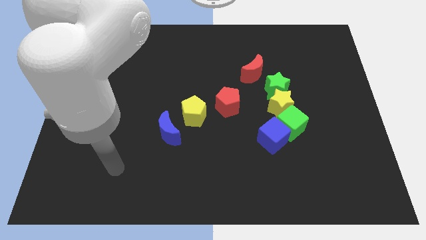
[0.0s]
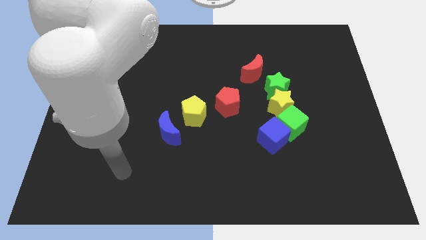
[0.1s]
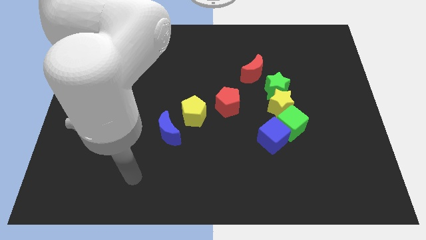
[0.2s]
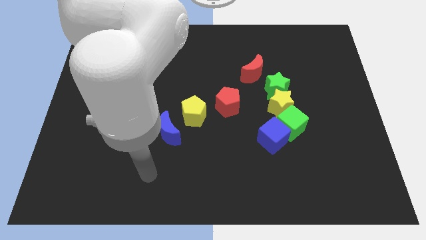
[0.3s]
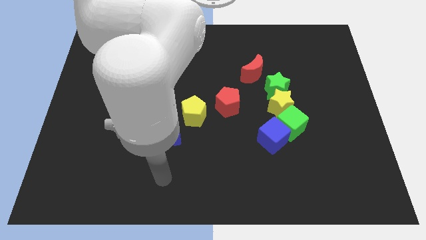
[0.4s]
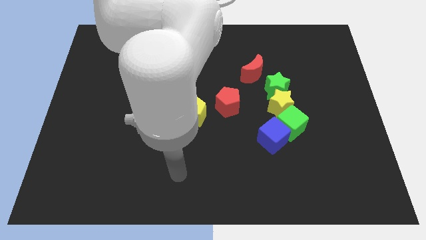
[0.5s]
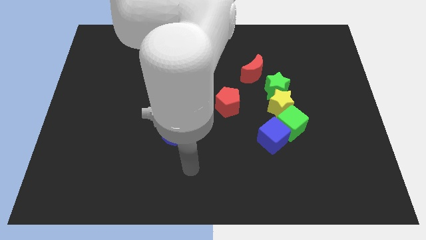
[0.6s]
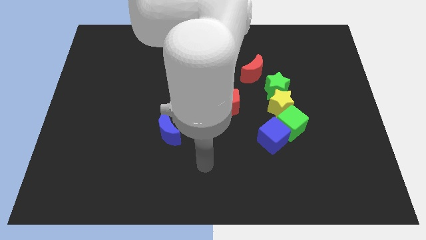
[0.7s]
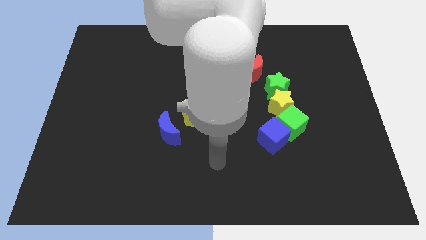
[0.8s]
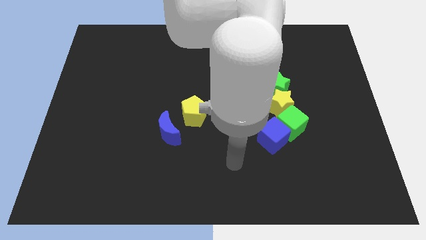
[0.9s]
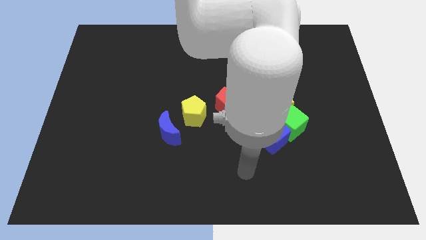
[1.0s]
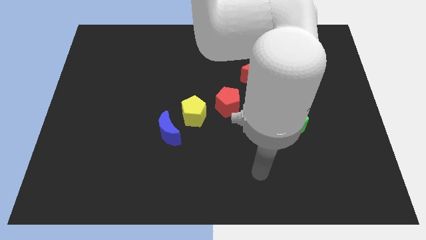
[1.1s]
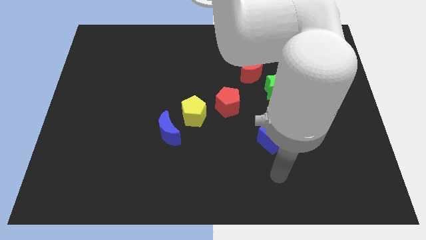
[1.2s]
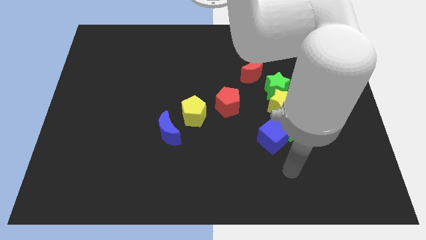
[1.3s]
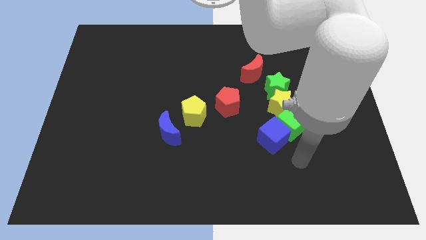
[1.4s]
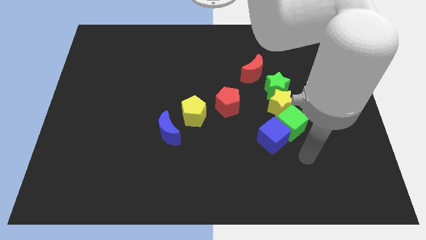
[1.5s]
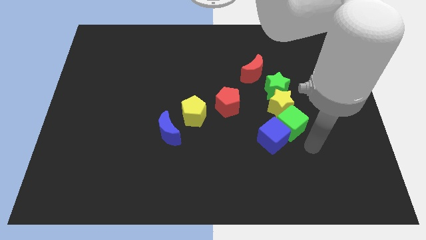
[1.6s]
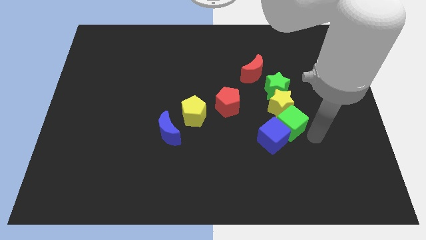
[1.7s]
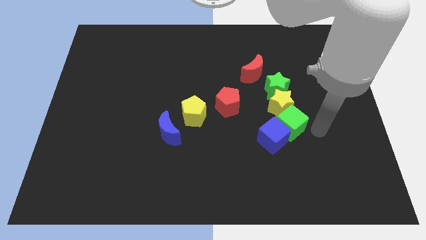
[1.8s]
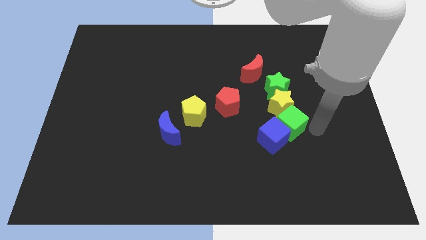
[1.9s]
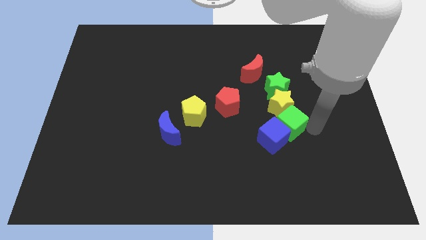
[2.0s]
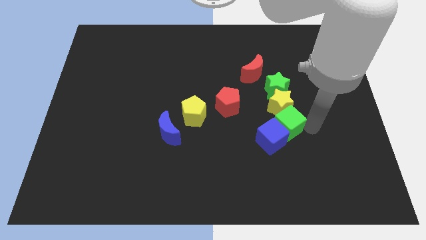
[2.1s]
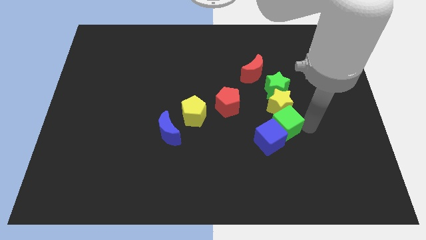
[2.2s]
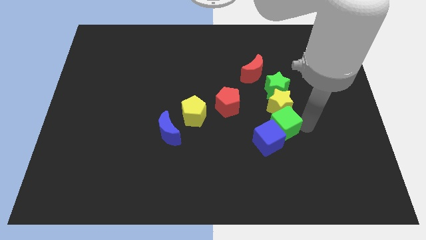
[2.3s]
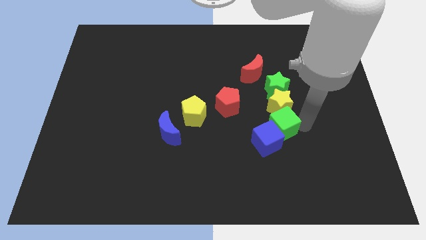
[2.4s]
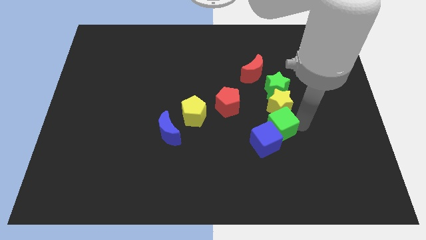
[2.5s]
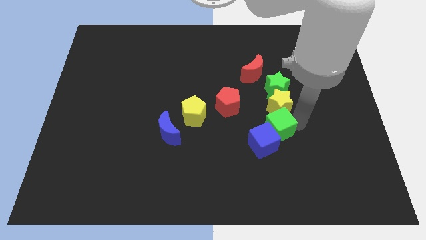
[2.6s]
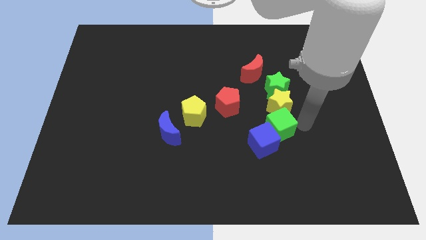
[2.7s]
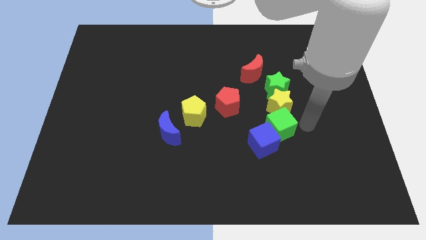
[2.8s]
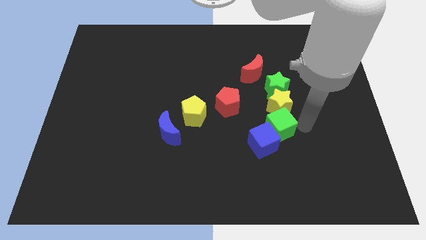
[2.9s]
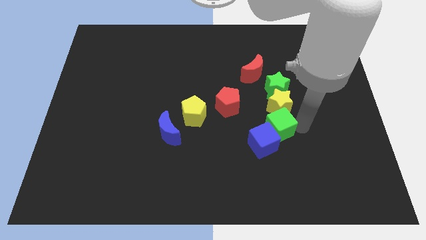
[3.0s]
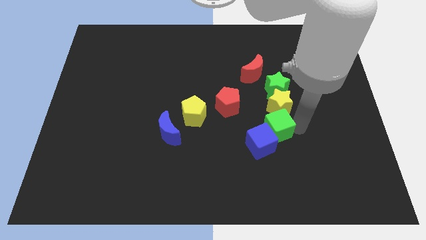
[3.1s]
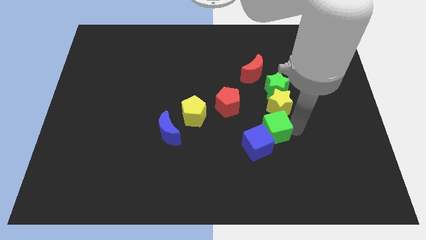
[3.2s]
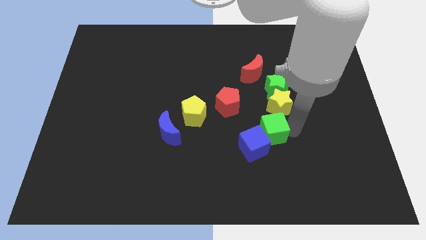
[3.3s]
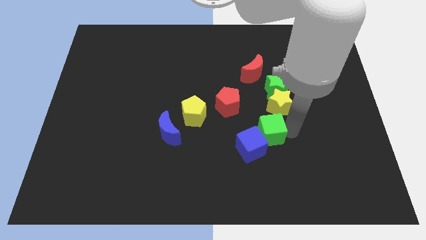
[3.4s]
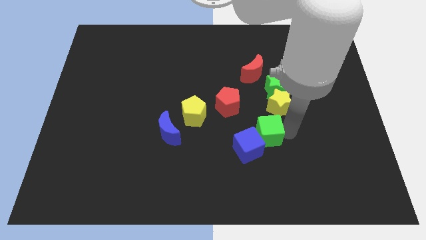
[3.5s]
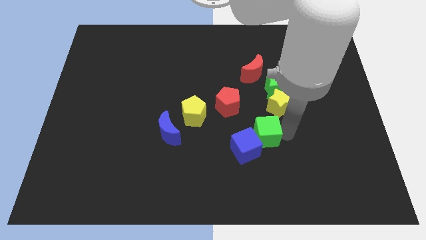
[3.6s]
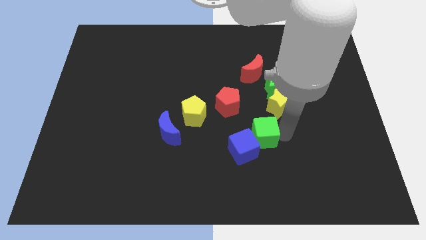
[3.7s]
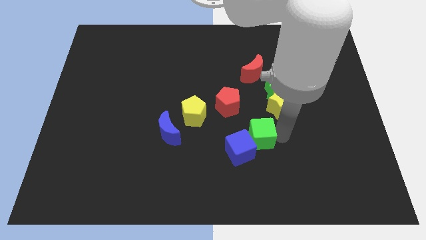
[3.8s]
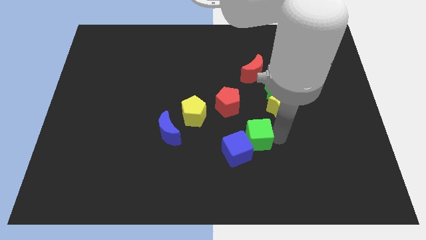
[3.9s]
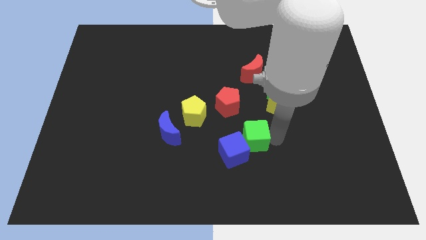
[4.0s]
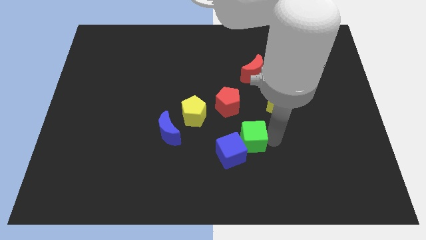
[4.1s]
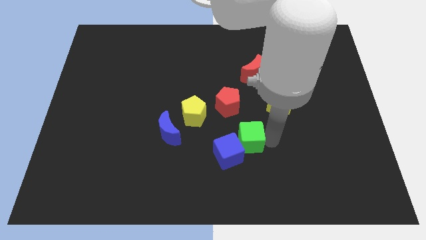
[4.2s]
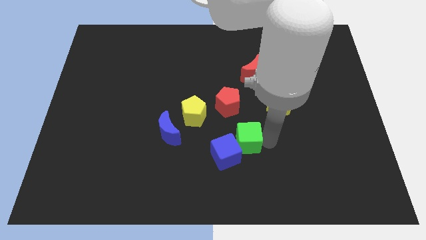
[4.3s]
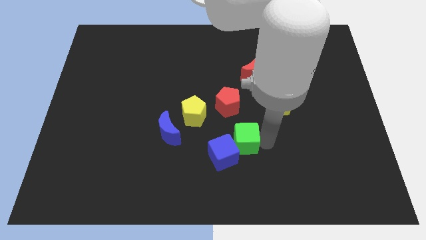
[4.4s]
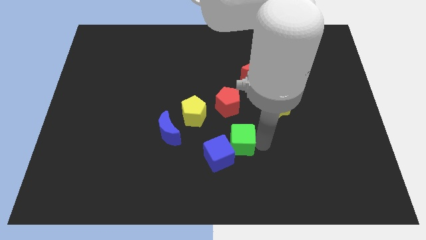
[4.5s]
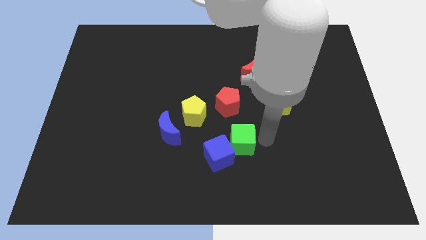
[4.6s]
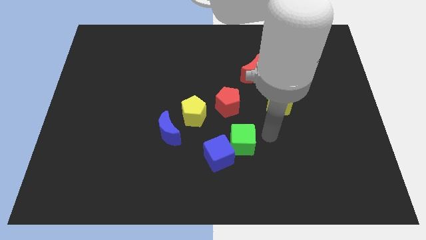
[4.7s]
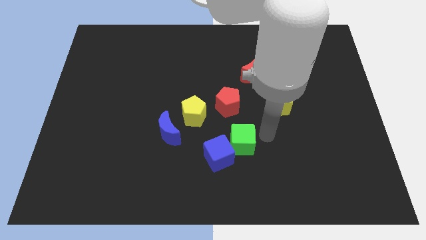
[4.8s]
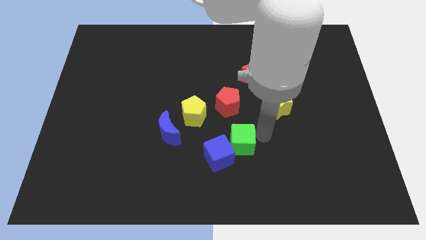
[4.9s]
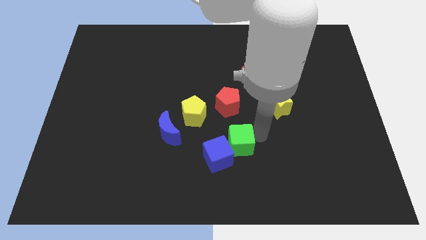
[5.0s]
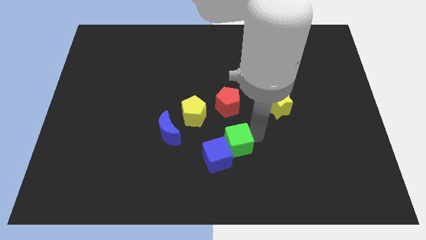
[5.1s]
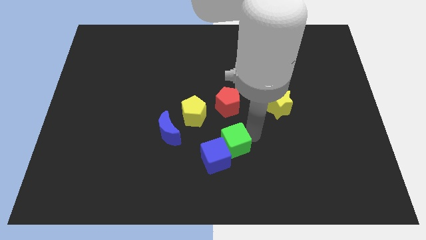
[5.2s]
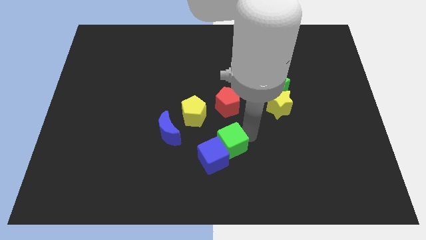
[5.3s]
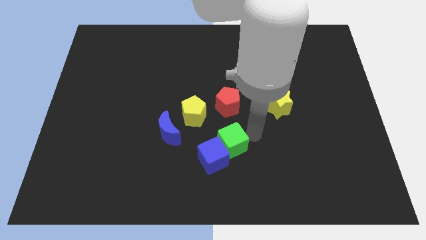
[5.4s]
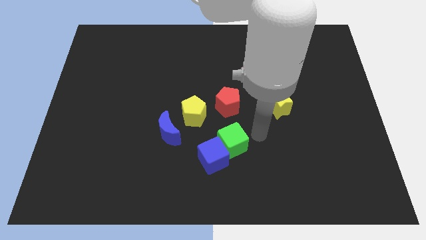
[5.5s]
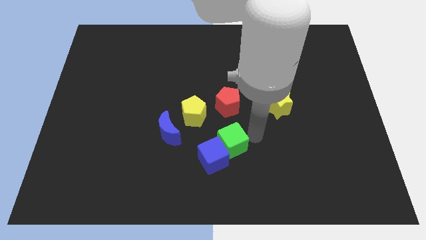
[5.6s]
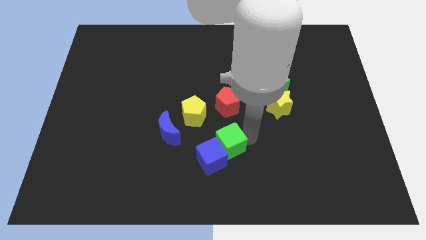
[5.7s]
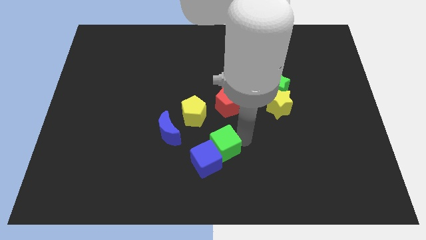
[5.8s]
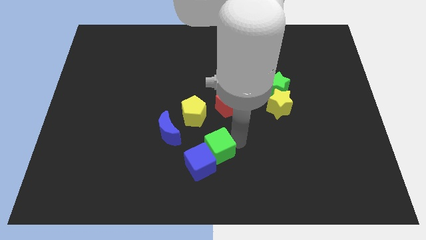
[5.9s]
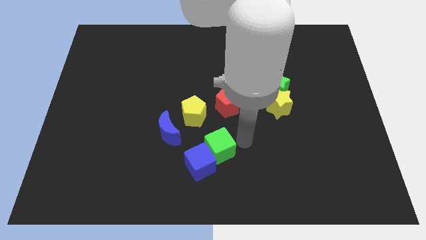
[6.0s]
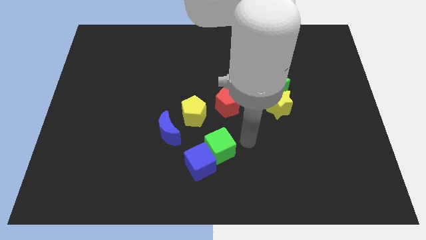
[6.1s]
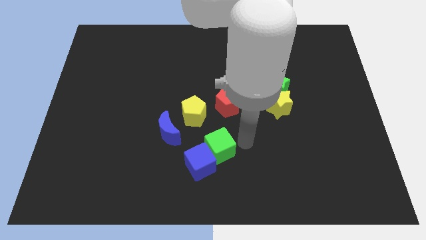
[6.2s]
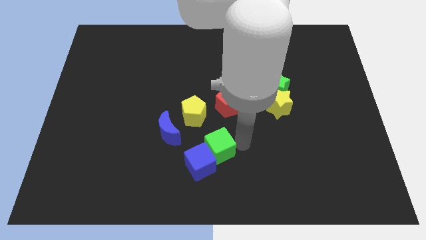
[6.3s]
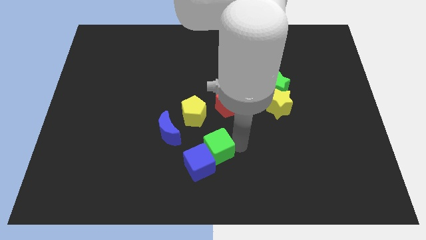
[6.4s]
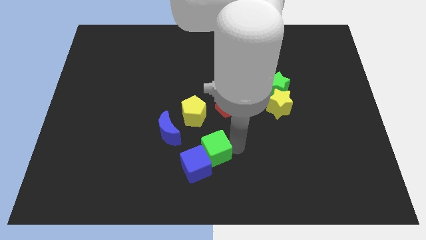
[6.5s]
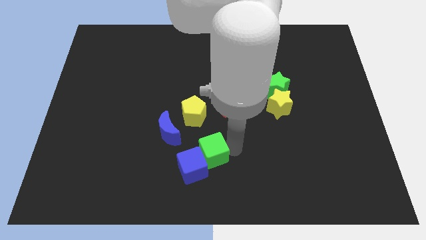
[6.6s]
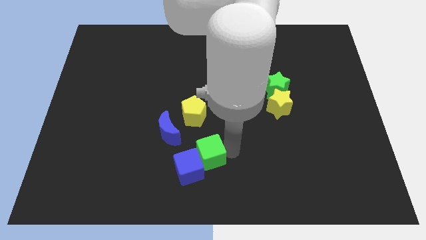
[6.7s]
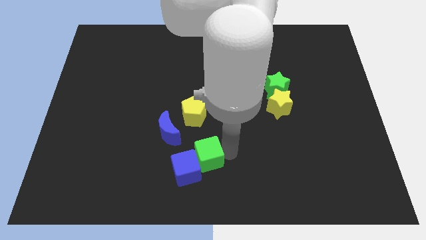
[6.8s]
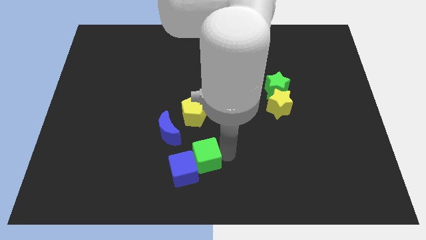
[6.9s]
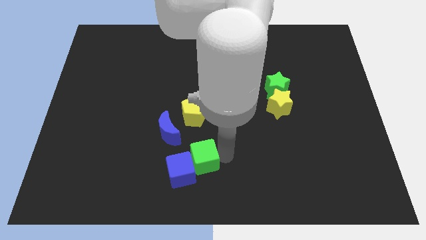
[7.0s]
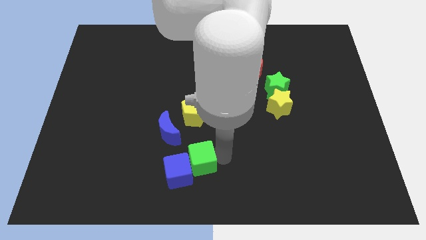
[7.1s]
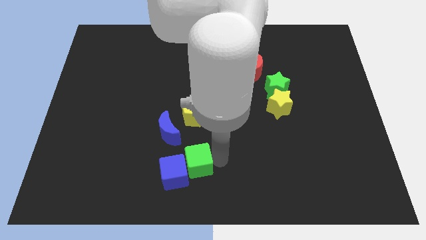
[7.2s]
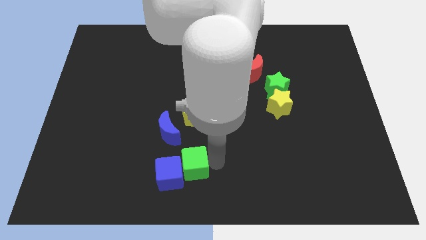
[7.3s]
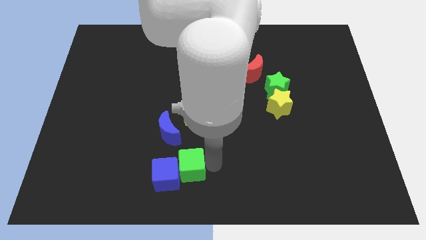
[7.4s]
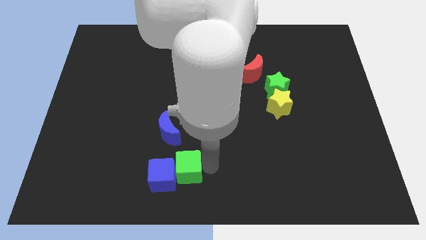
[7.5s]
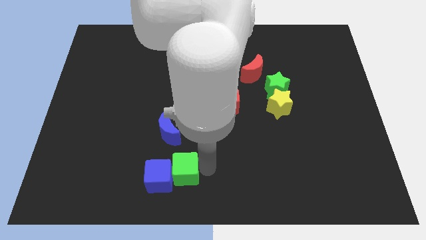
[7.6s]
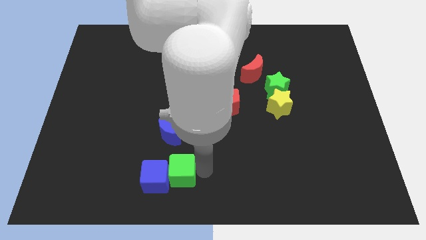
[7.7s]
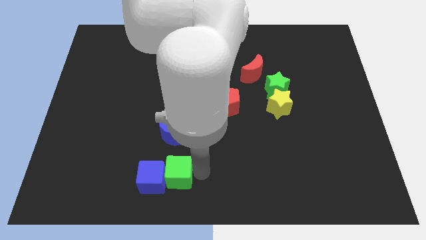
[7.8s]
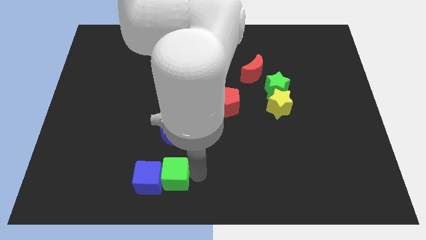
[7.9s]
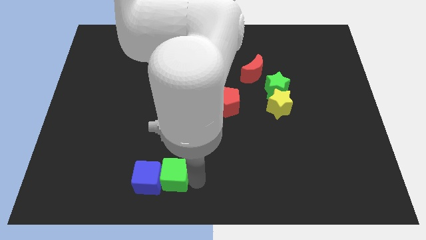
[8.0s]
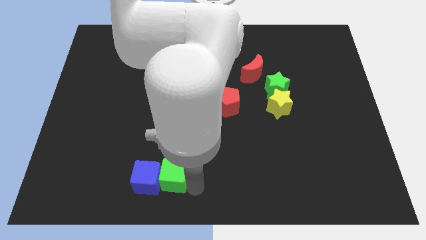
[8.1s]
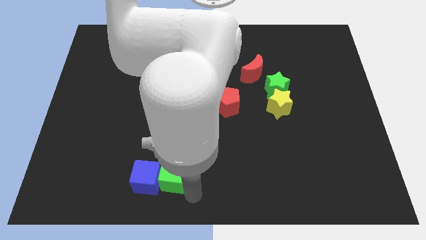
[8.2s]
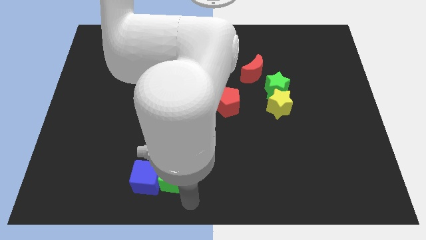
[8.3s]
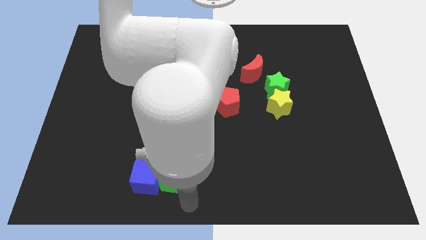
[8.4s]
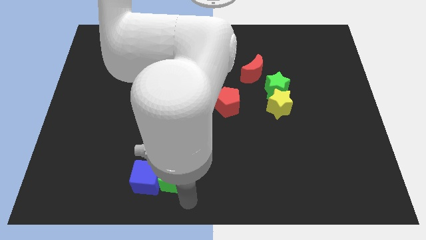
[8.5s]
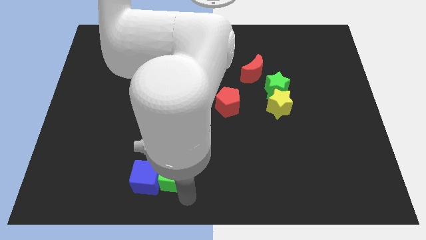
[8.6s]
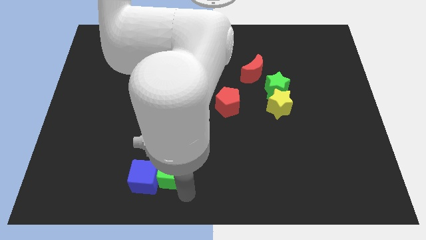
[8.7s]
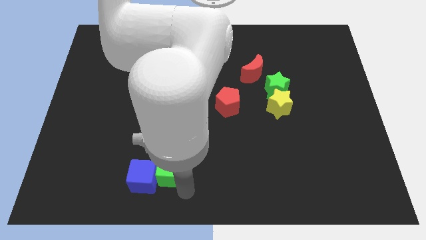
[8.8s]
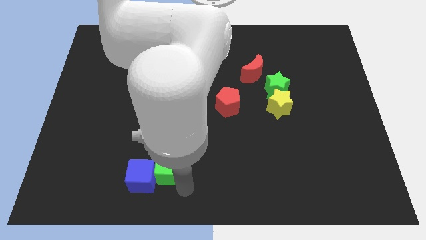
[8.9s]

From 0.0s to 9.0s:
slide the green cube left
